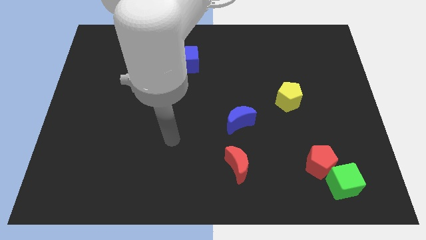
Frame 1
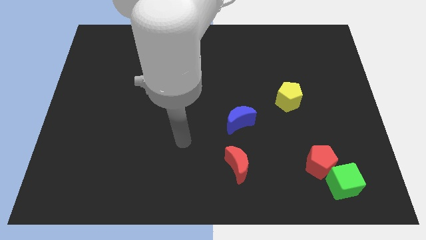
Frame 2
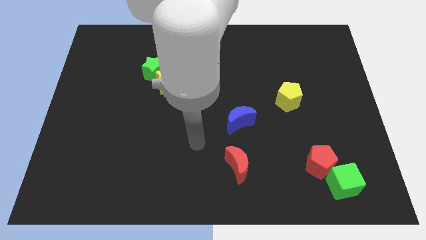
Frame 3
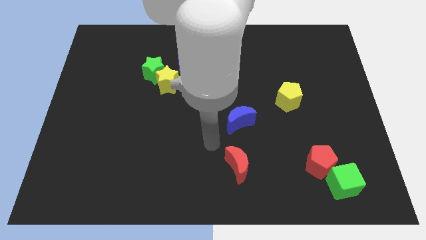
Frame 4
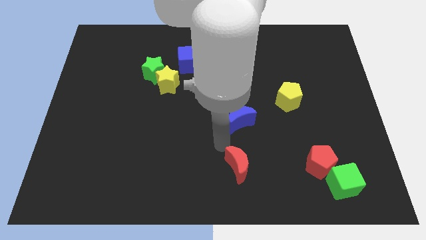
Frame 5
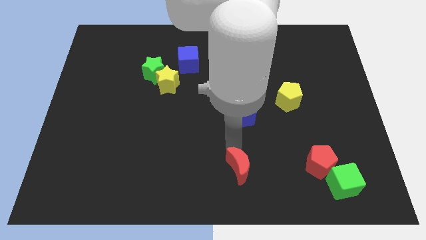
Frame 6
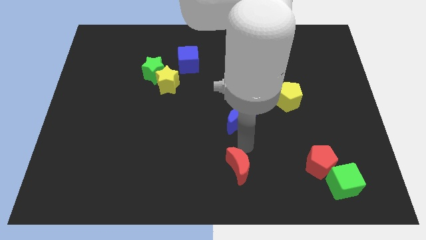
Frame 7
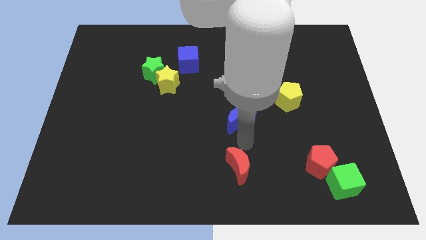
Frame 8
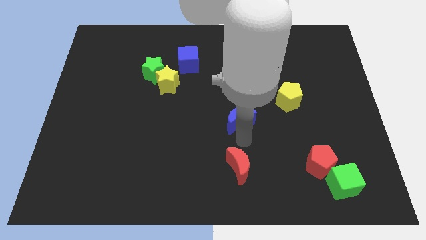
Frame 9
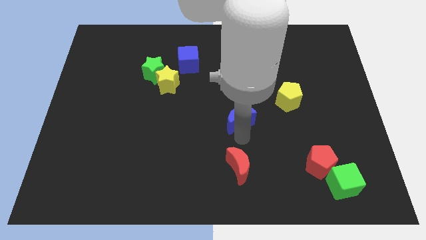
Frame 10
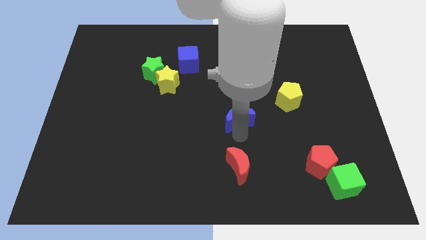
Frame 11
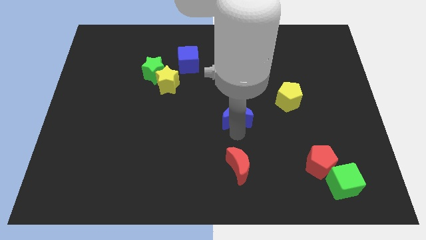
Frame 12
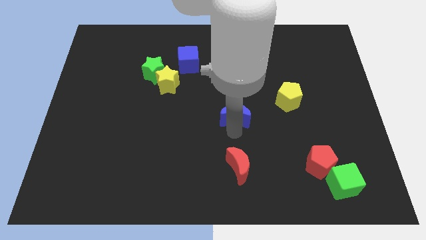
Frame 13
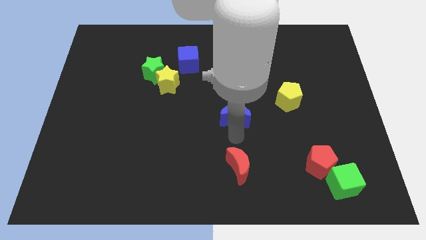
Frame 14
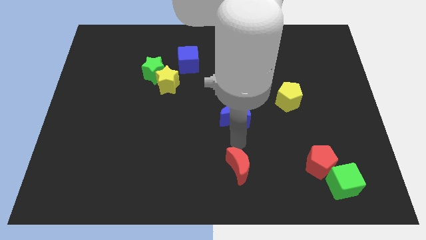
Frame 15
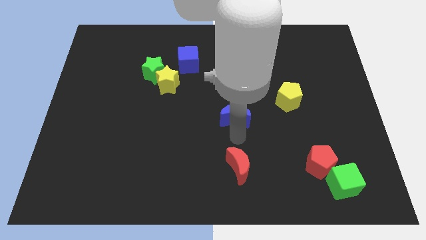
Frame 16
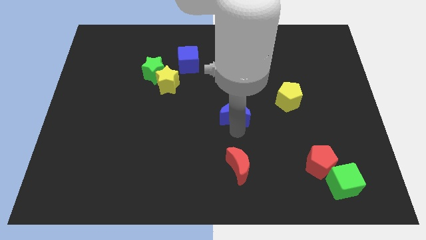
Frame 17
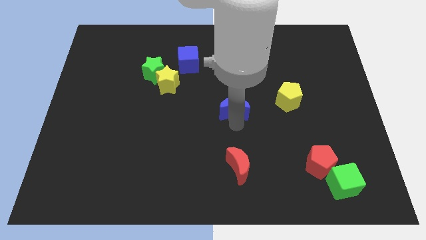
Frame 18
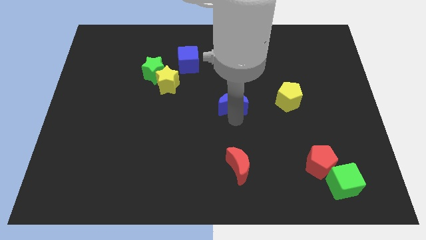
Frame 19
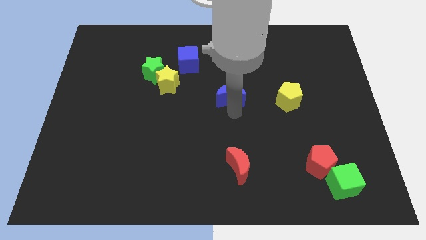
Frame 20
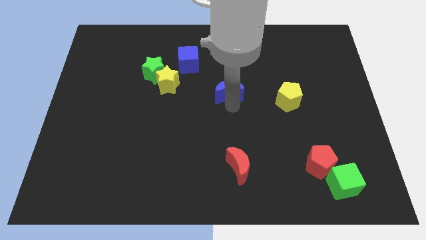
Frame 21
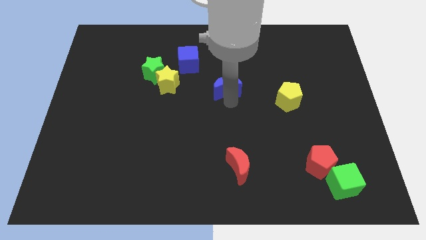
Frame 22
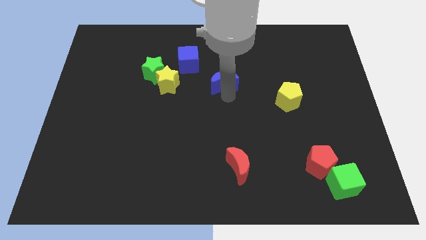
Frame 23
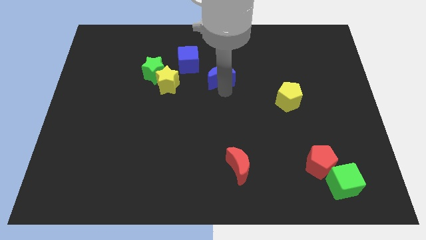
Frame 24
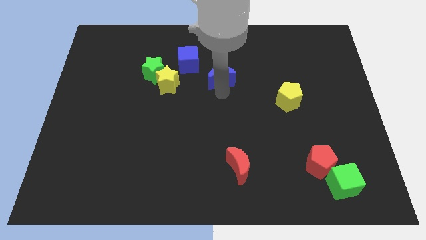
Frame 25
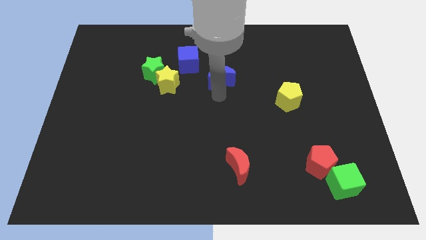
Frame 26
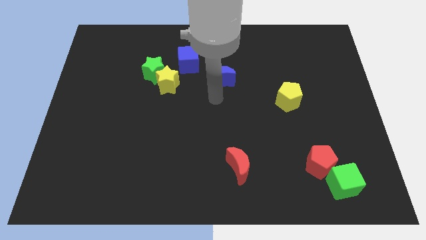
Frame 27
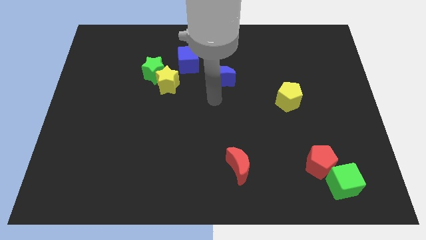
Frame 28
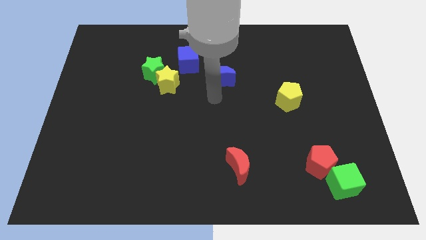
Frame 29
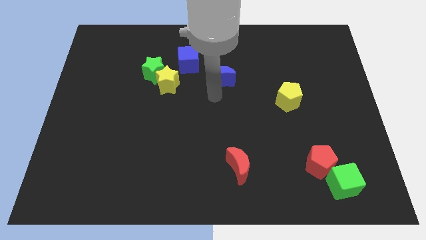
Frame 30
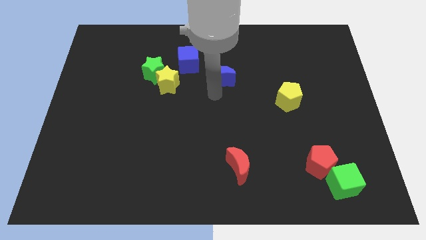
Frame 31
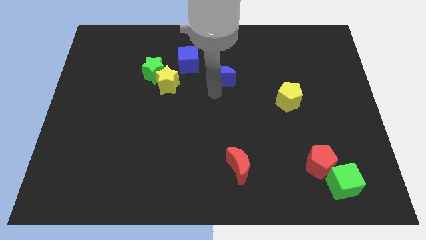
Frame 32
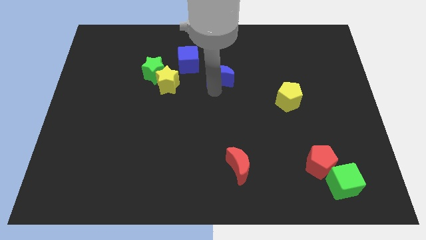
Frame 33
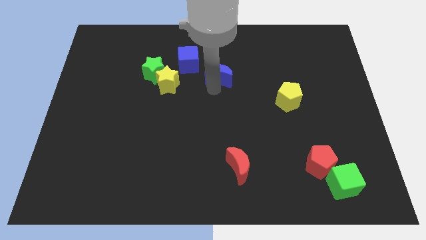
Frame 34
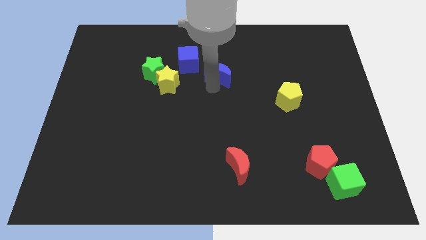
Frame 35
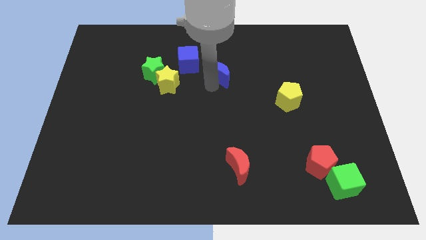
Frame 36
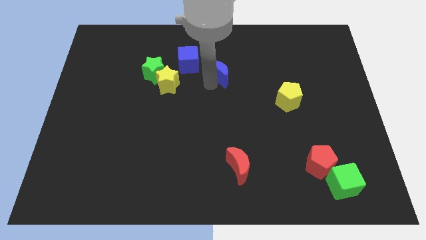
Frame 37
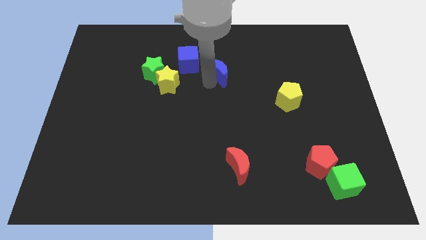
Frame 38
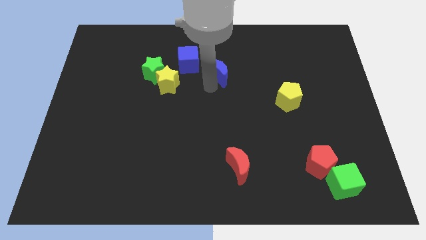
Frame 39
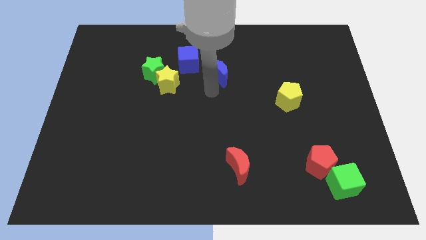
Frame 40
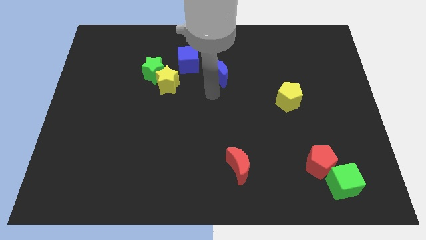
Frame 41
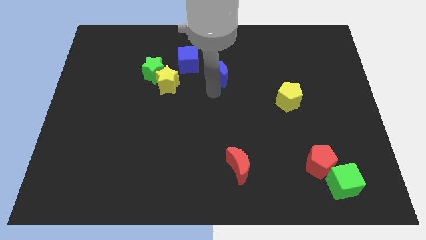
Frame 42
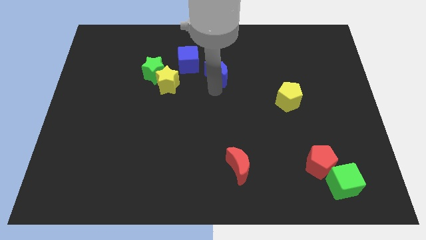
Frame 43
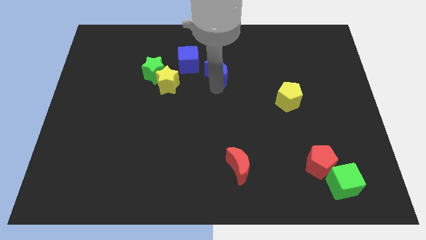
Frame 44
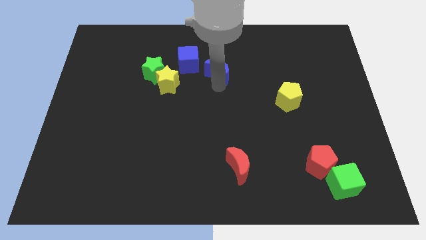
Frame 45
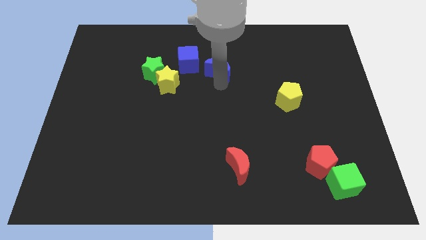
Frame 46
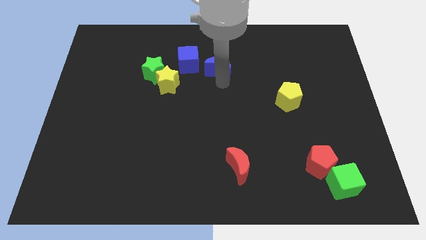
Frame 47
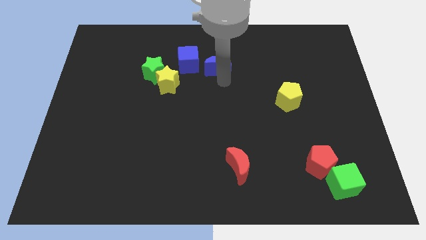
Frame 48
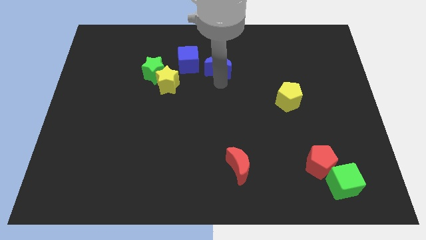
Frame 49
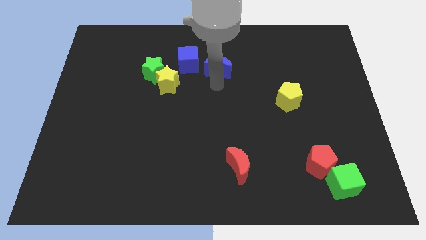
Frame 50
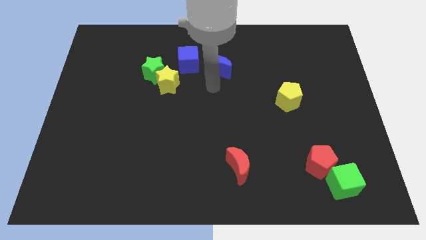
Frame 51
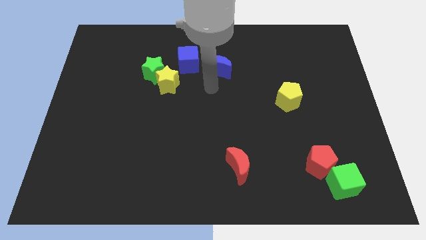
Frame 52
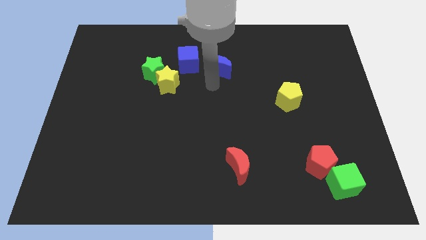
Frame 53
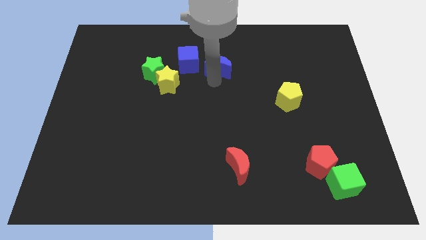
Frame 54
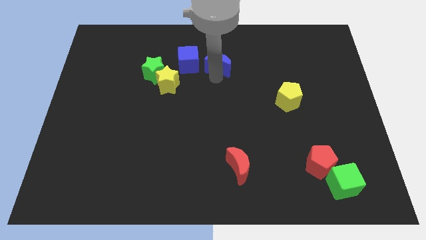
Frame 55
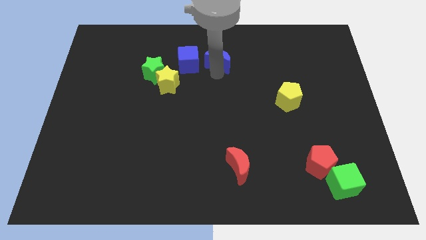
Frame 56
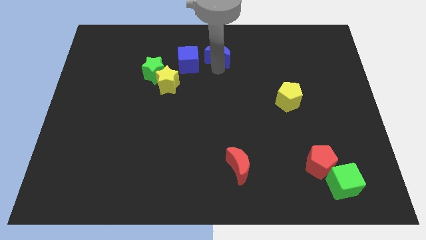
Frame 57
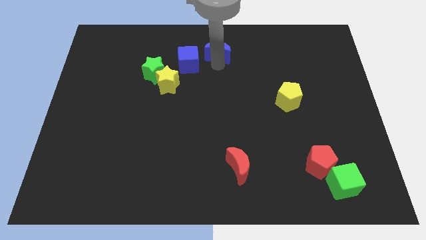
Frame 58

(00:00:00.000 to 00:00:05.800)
put the blue moon to the towards your base

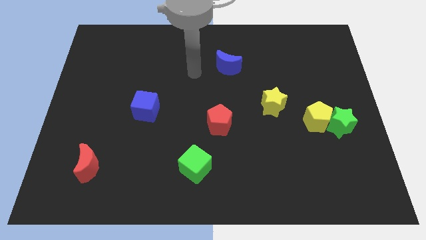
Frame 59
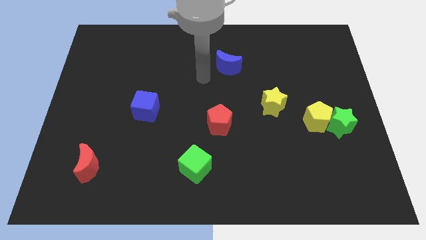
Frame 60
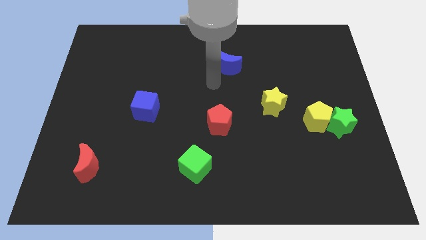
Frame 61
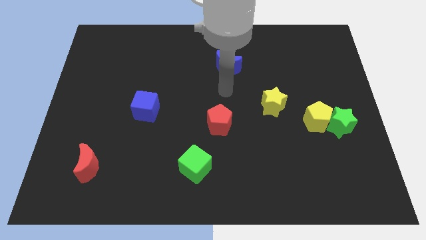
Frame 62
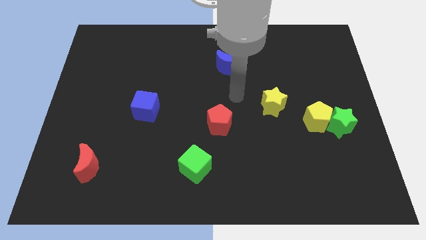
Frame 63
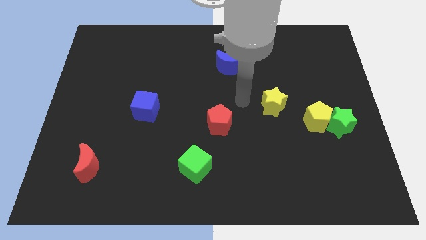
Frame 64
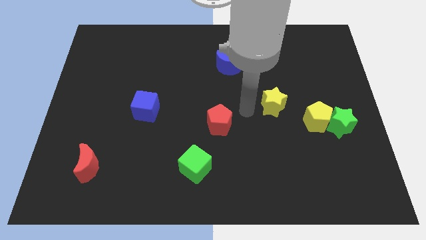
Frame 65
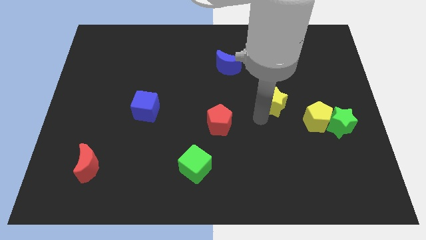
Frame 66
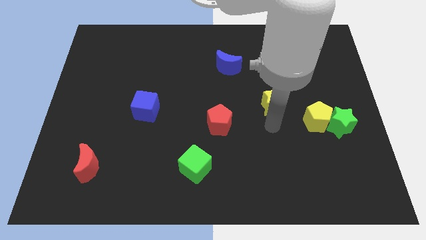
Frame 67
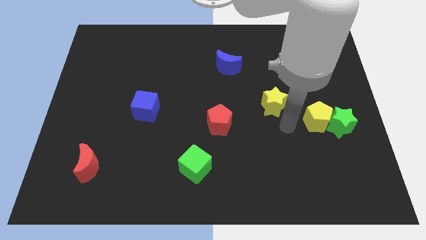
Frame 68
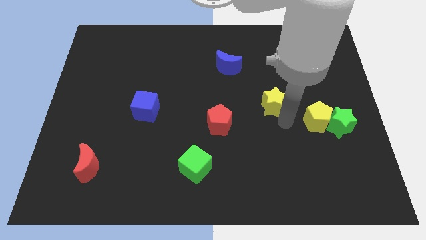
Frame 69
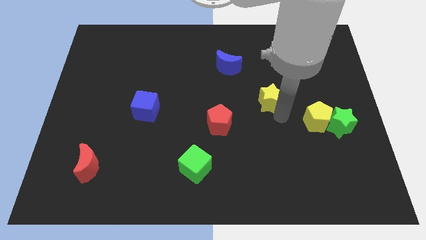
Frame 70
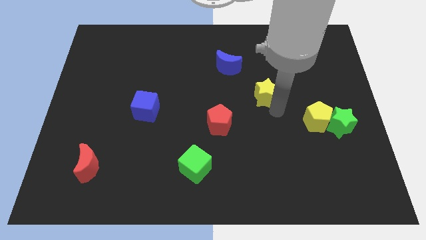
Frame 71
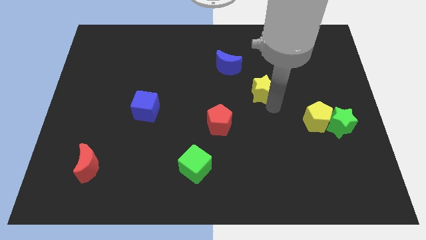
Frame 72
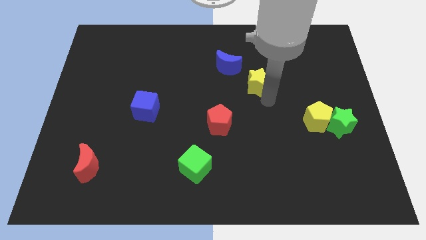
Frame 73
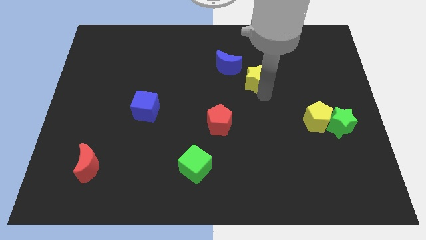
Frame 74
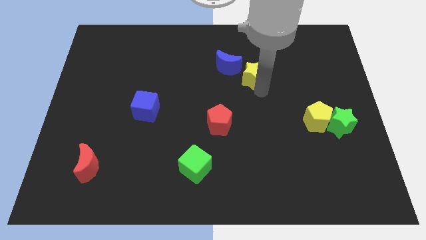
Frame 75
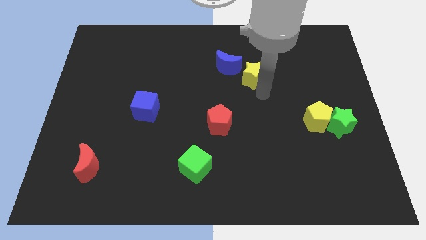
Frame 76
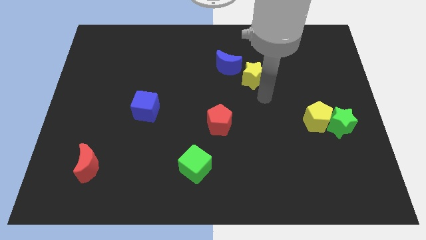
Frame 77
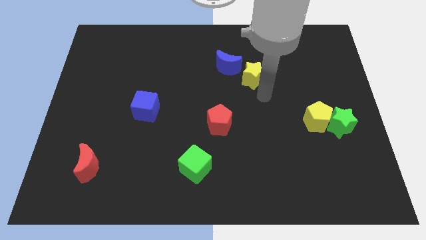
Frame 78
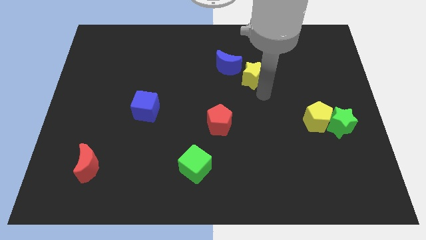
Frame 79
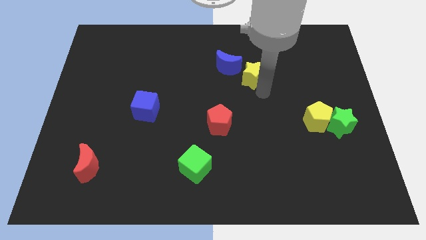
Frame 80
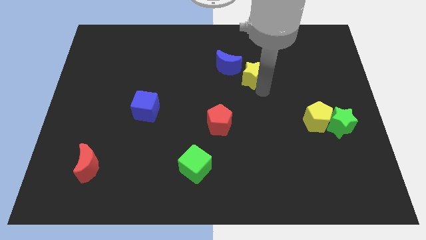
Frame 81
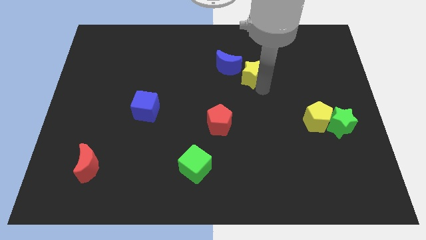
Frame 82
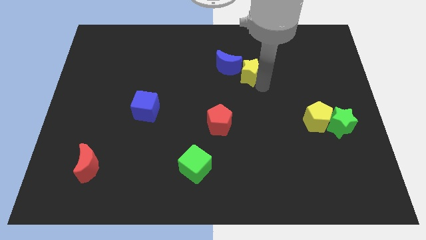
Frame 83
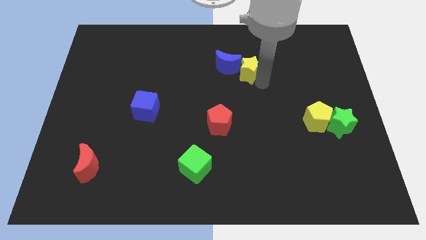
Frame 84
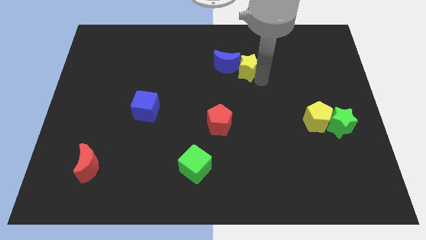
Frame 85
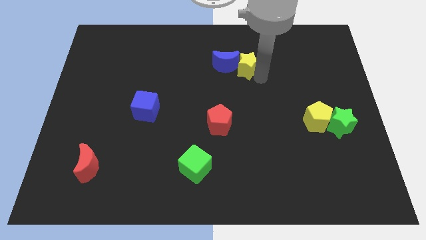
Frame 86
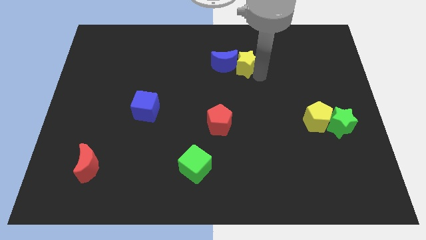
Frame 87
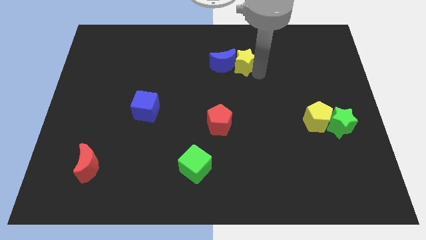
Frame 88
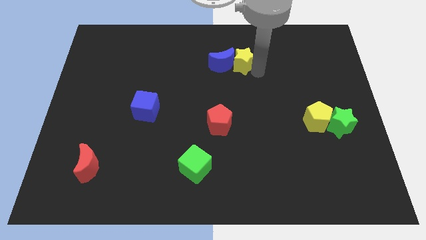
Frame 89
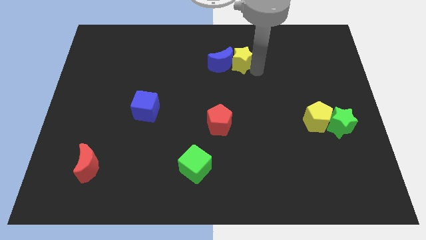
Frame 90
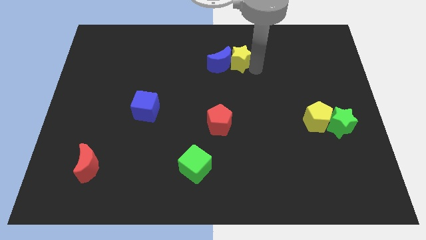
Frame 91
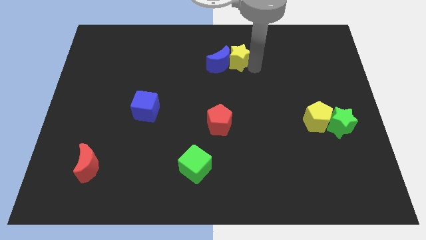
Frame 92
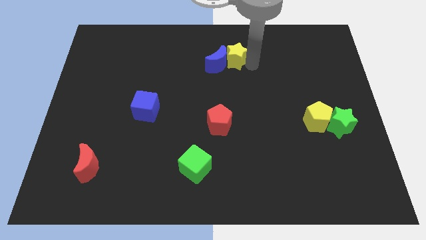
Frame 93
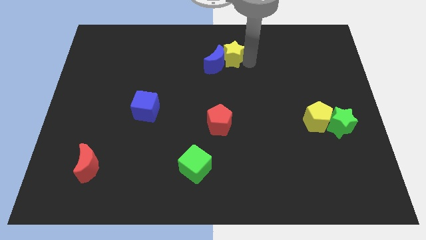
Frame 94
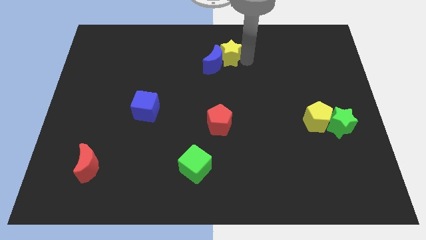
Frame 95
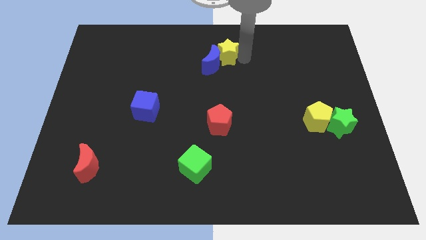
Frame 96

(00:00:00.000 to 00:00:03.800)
put the yellow star to the top side
